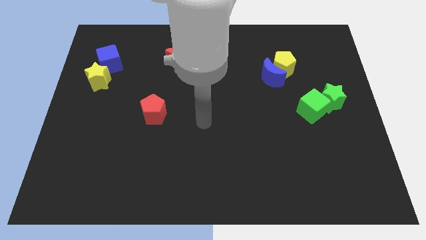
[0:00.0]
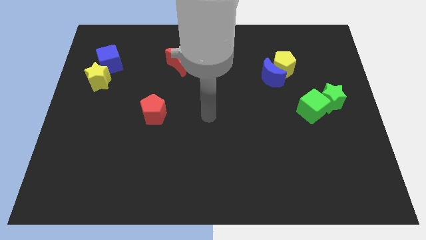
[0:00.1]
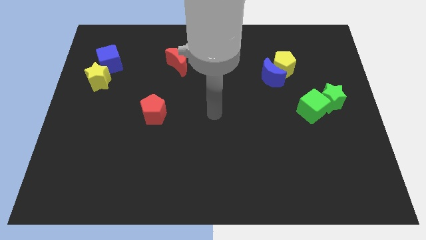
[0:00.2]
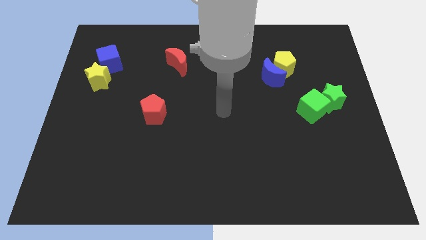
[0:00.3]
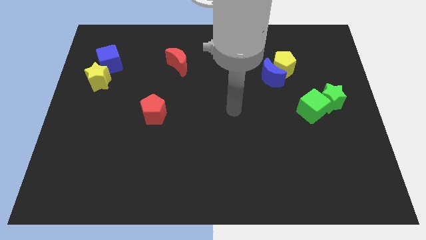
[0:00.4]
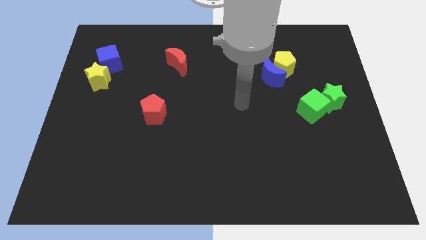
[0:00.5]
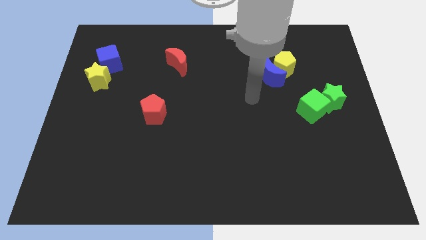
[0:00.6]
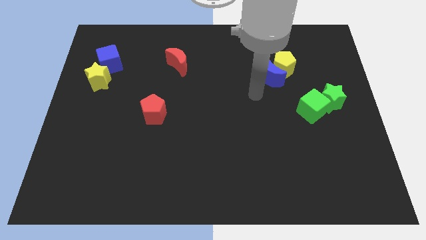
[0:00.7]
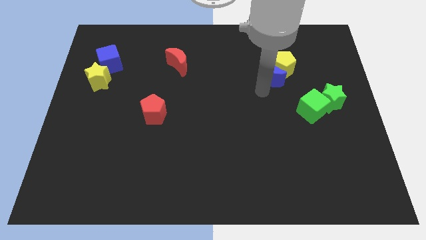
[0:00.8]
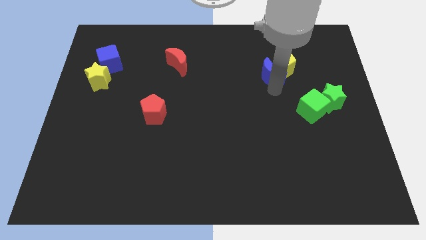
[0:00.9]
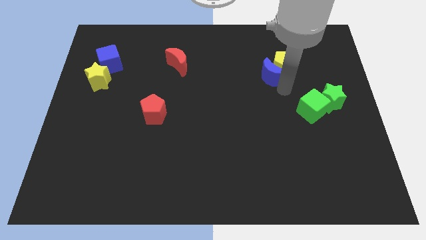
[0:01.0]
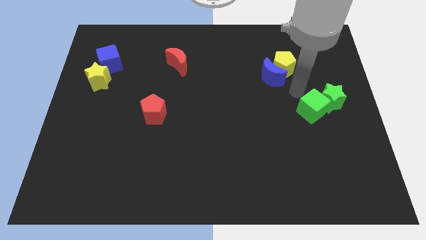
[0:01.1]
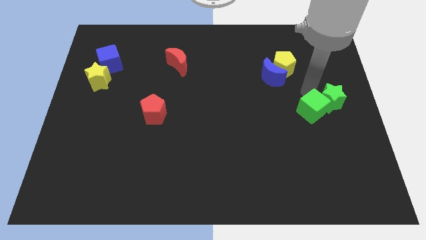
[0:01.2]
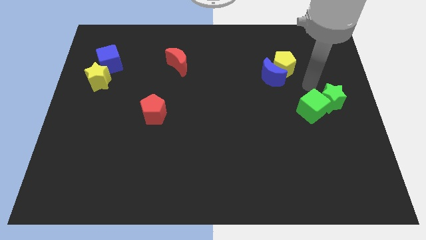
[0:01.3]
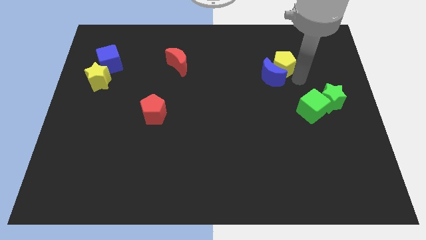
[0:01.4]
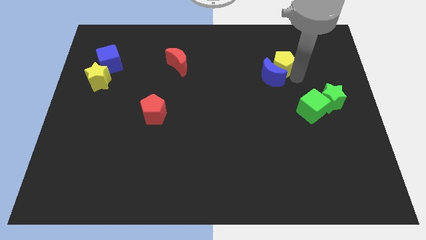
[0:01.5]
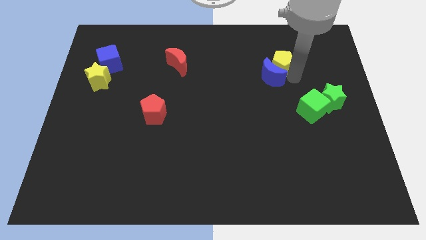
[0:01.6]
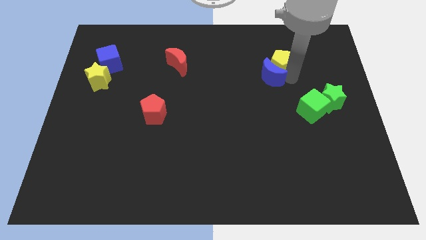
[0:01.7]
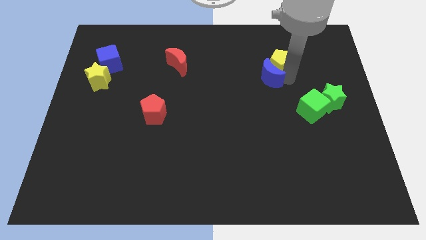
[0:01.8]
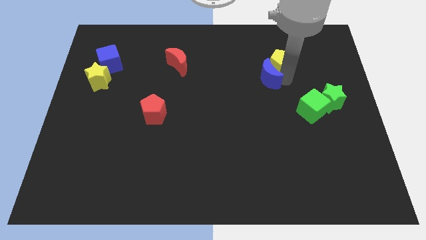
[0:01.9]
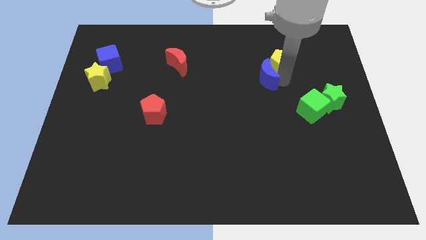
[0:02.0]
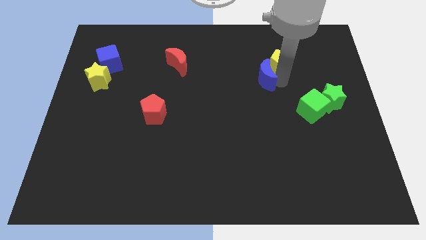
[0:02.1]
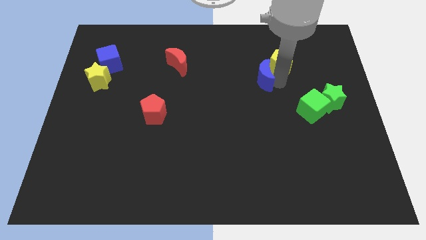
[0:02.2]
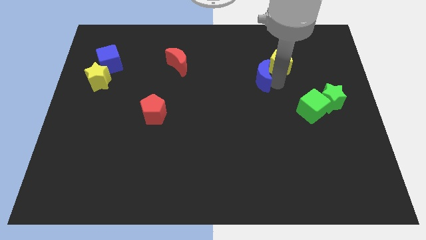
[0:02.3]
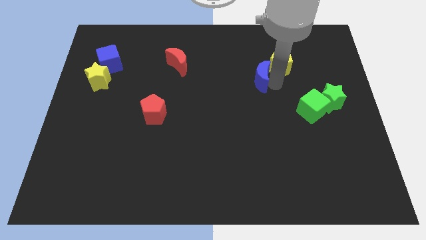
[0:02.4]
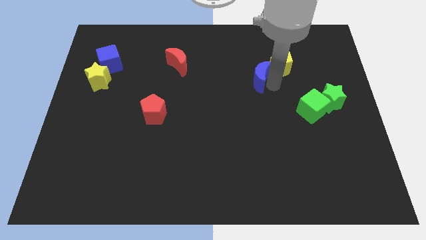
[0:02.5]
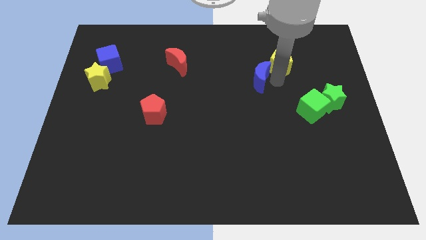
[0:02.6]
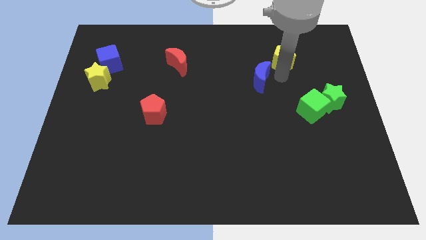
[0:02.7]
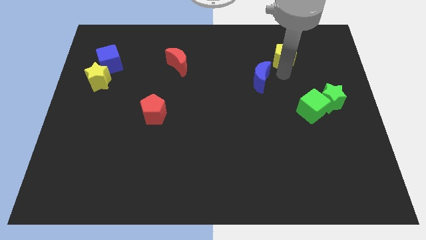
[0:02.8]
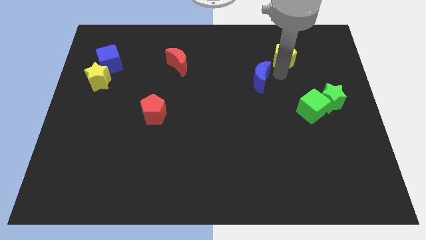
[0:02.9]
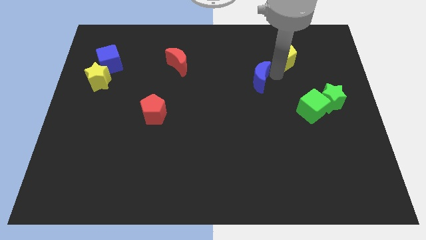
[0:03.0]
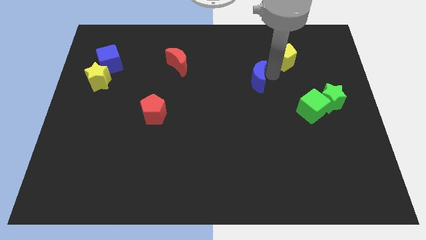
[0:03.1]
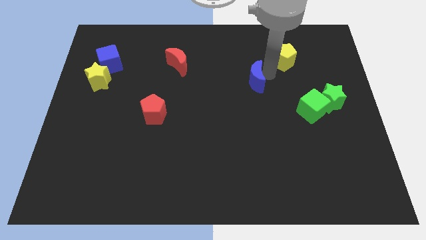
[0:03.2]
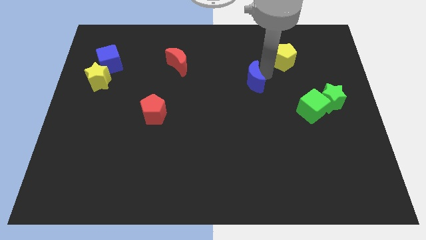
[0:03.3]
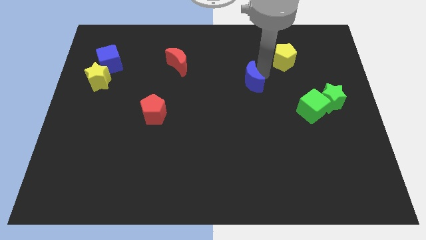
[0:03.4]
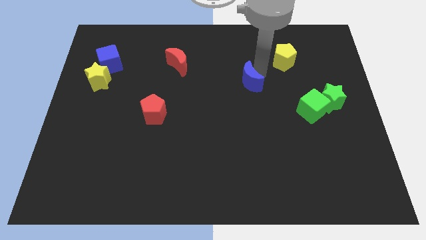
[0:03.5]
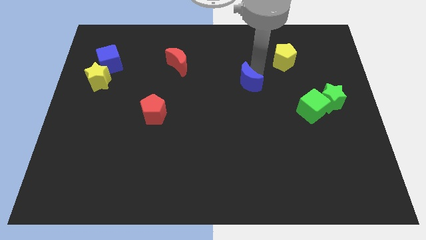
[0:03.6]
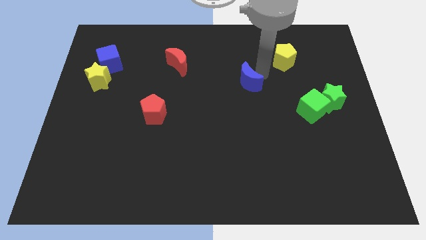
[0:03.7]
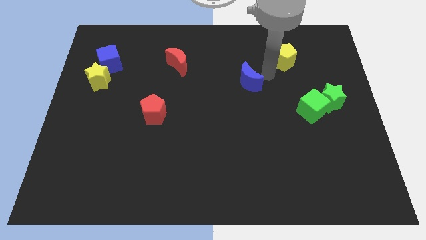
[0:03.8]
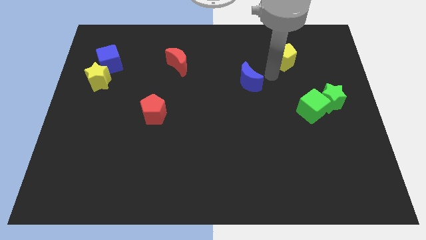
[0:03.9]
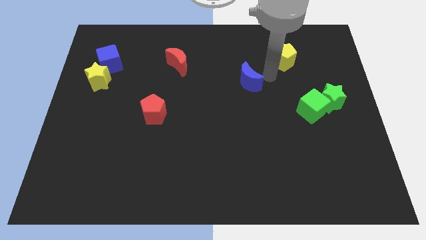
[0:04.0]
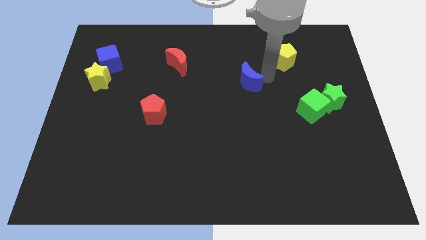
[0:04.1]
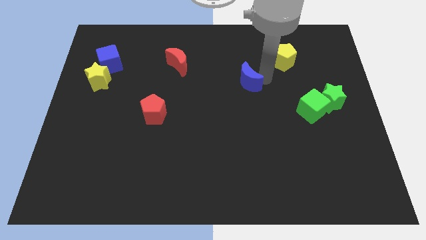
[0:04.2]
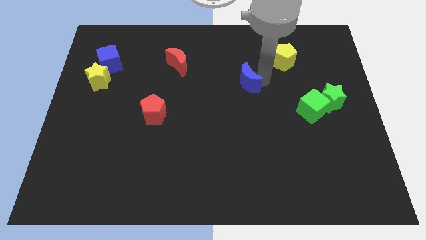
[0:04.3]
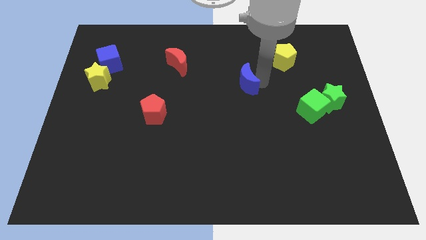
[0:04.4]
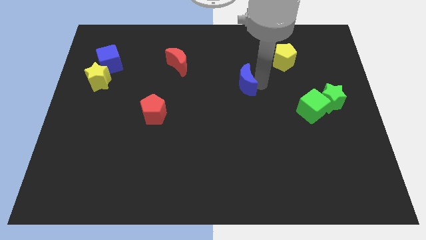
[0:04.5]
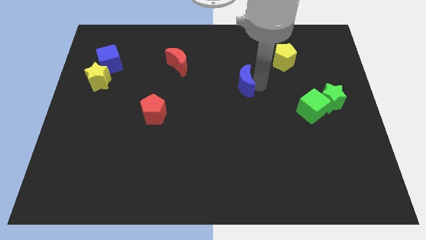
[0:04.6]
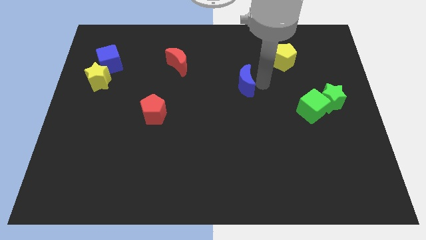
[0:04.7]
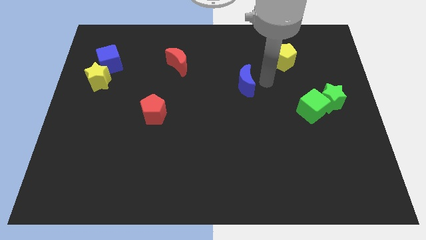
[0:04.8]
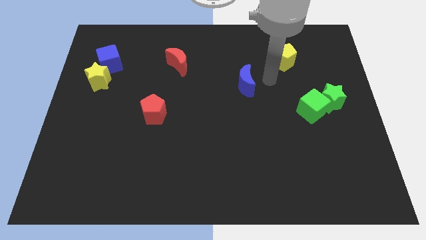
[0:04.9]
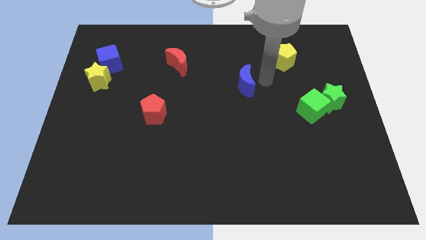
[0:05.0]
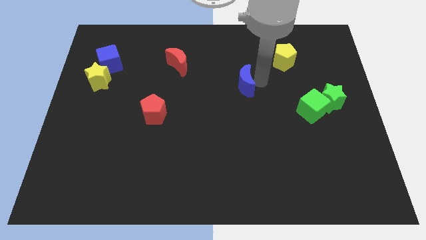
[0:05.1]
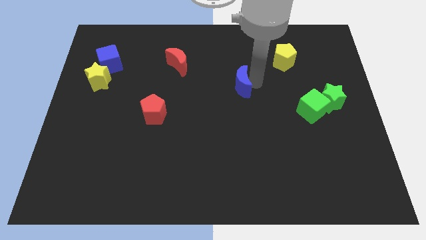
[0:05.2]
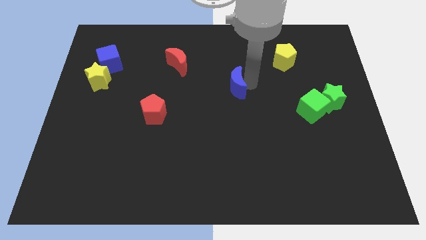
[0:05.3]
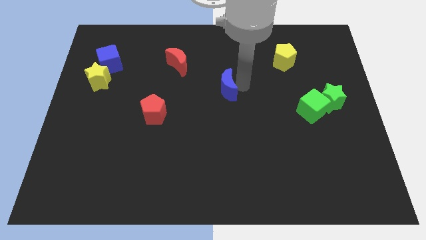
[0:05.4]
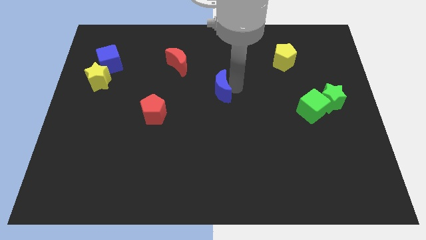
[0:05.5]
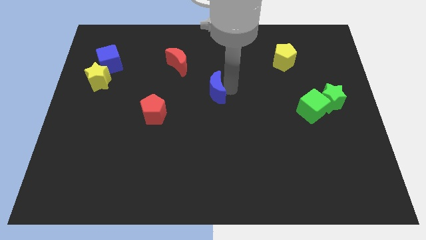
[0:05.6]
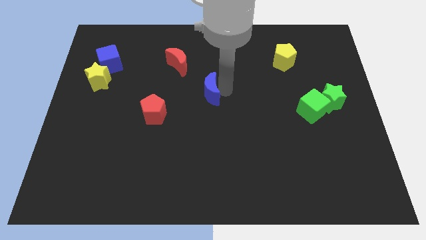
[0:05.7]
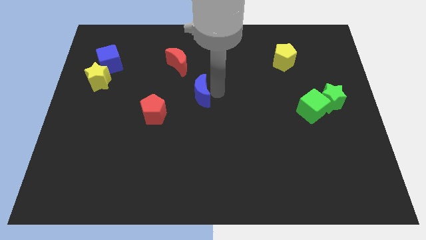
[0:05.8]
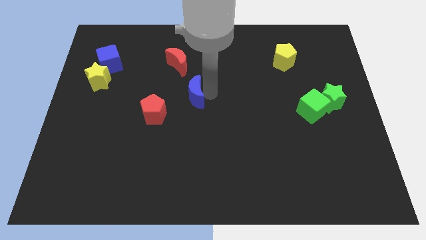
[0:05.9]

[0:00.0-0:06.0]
push the blue moon to the top right side of the red pentagon
